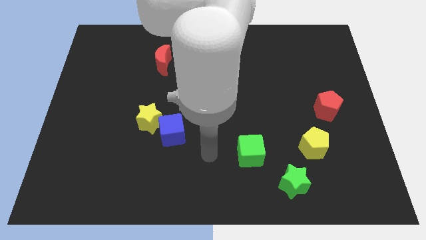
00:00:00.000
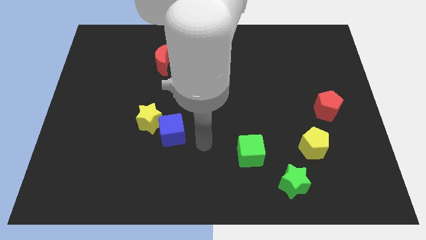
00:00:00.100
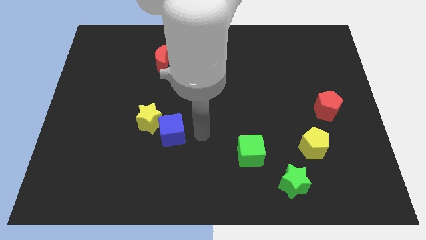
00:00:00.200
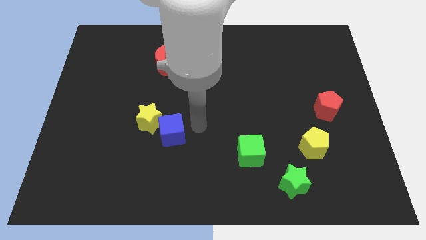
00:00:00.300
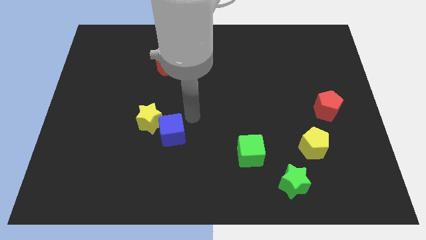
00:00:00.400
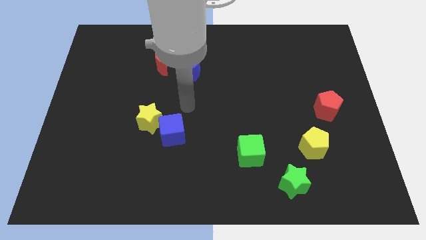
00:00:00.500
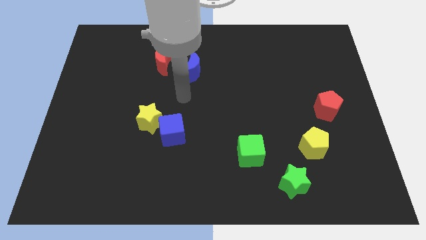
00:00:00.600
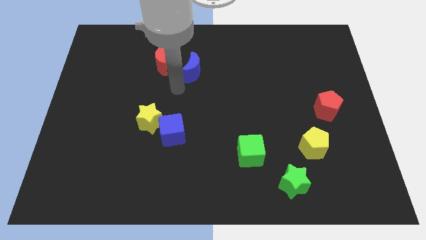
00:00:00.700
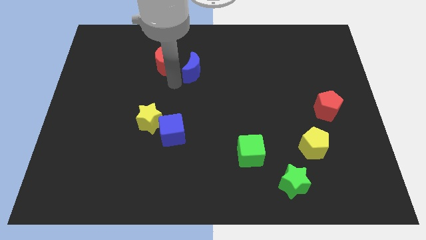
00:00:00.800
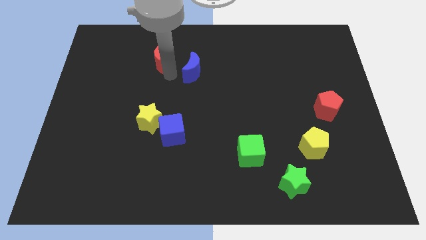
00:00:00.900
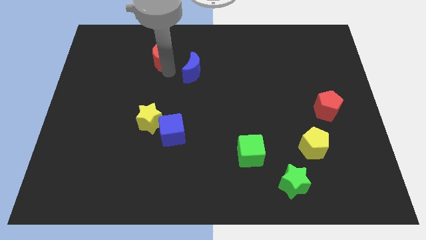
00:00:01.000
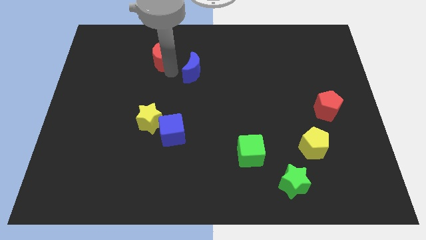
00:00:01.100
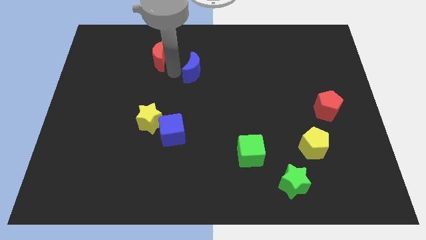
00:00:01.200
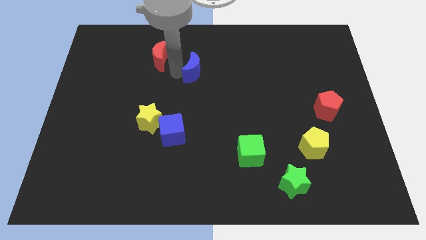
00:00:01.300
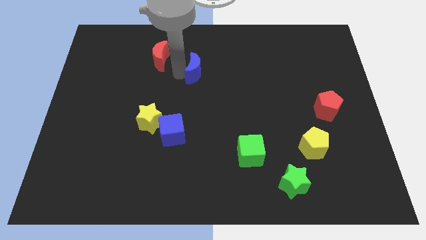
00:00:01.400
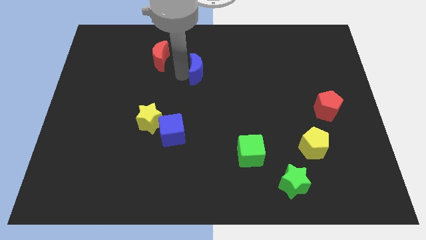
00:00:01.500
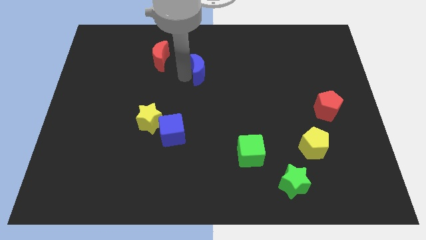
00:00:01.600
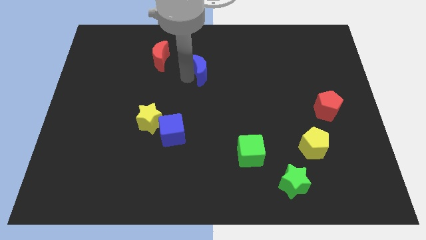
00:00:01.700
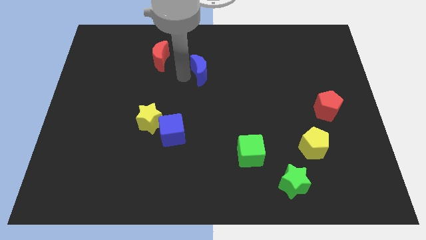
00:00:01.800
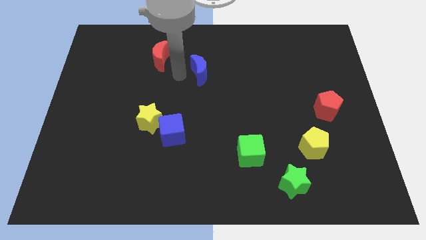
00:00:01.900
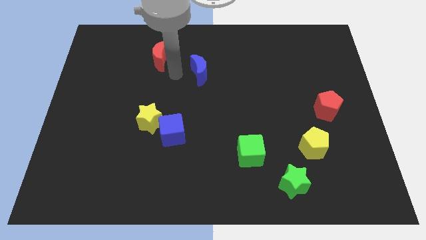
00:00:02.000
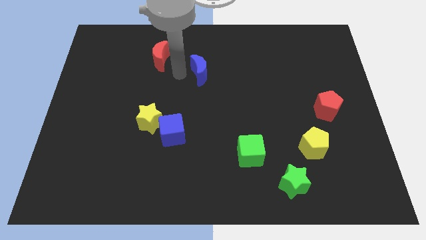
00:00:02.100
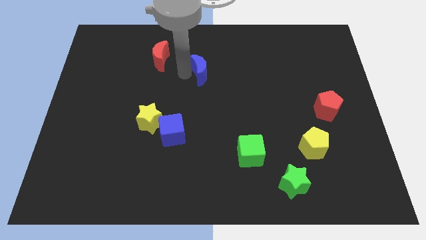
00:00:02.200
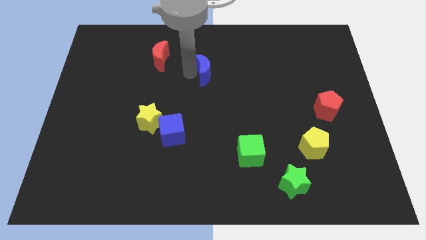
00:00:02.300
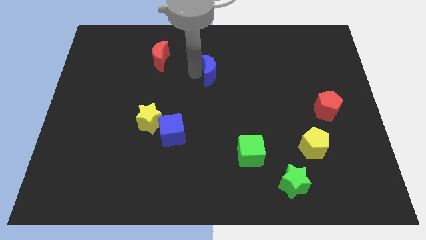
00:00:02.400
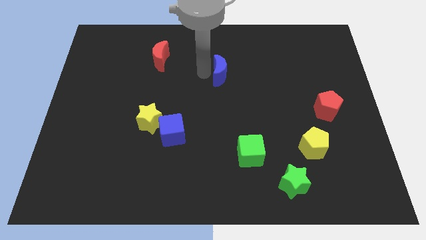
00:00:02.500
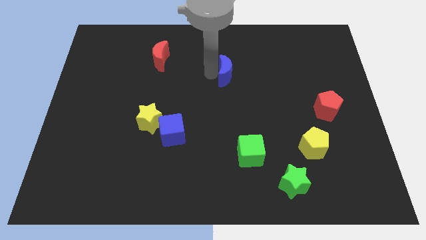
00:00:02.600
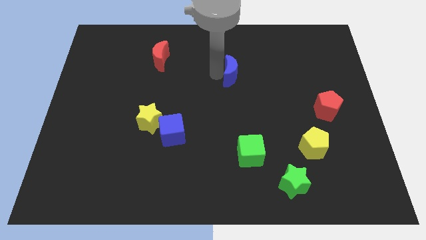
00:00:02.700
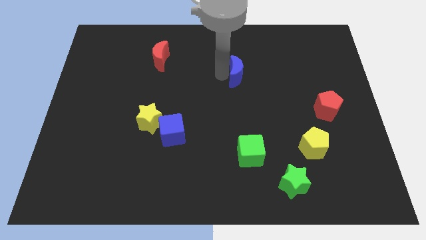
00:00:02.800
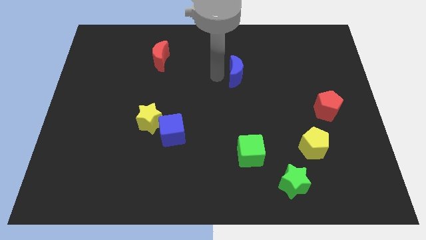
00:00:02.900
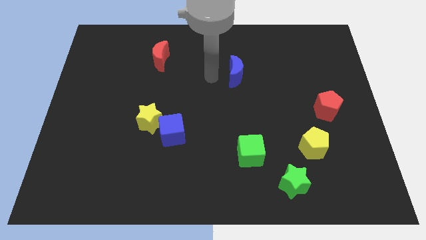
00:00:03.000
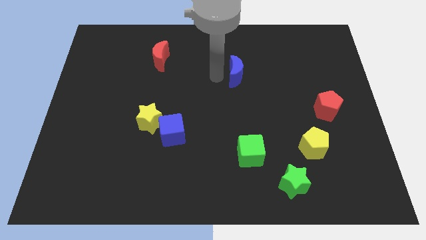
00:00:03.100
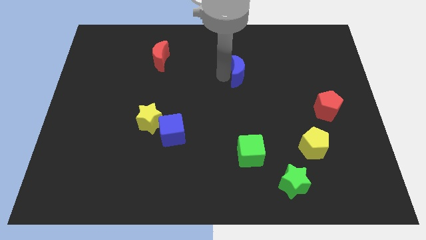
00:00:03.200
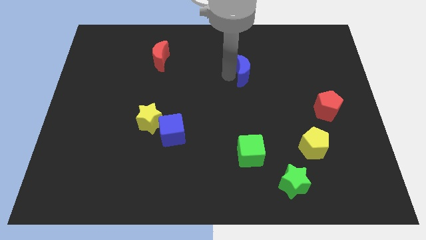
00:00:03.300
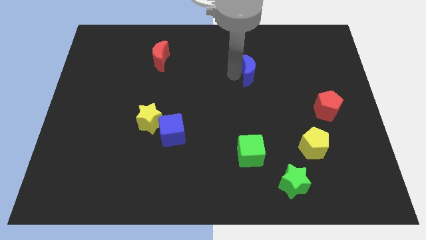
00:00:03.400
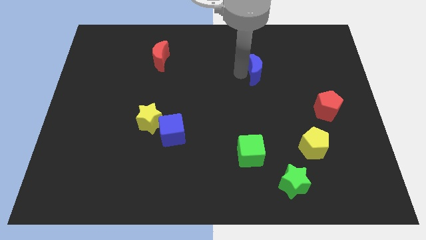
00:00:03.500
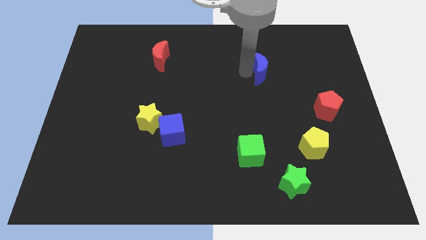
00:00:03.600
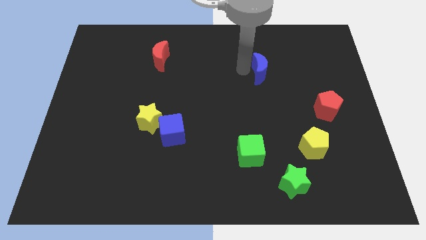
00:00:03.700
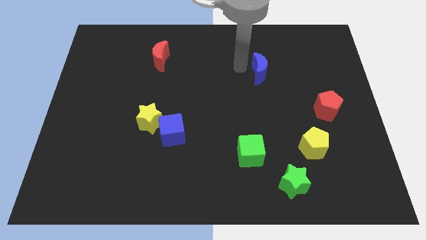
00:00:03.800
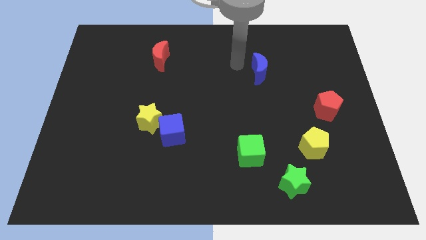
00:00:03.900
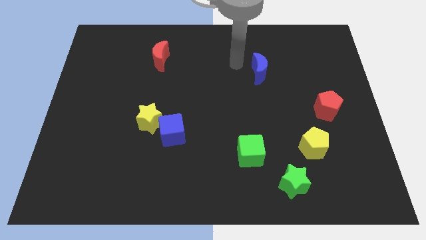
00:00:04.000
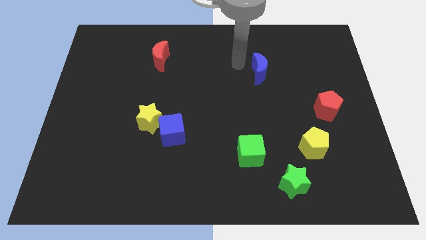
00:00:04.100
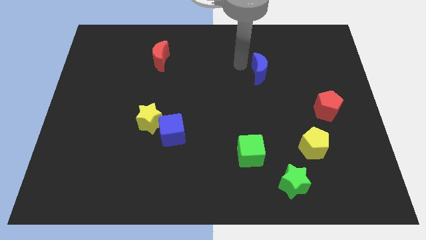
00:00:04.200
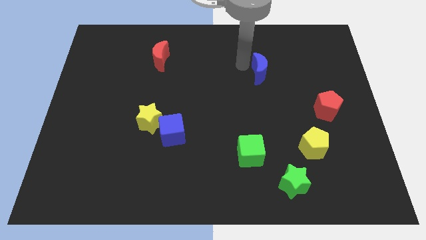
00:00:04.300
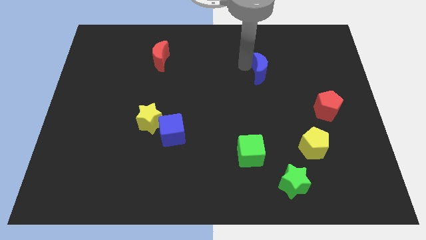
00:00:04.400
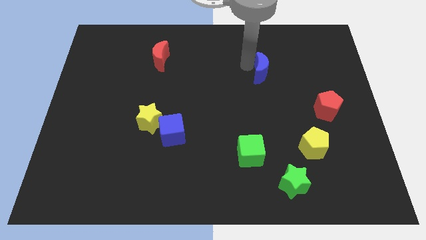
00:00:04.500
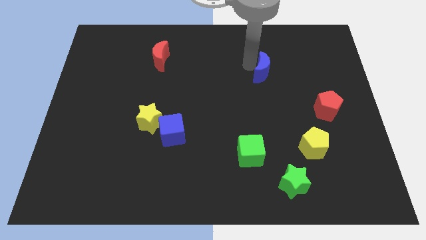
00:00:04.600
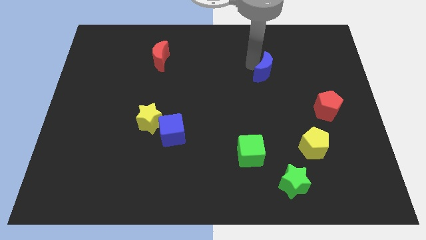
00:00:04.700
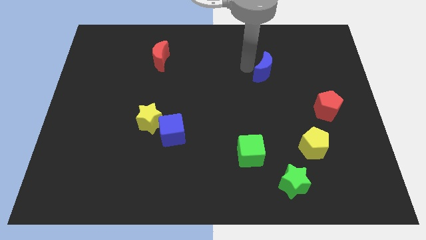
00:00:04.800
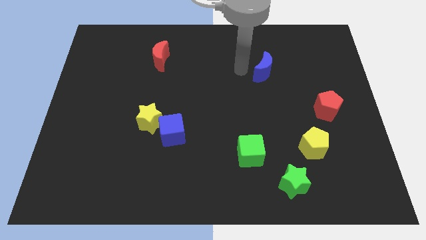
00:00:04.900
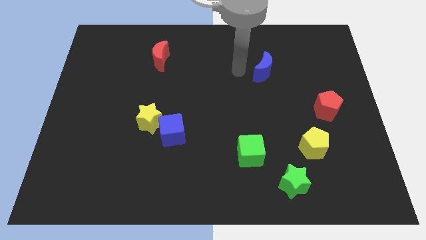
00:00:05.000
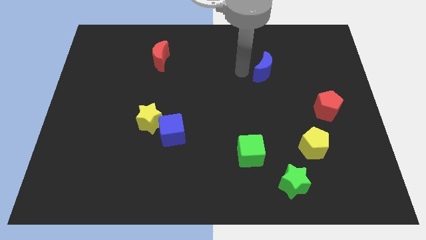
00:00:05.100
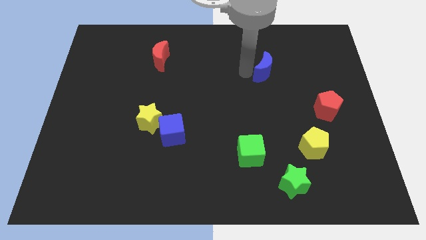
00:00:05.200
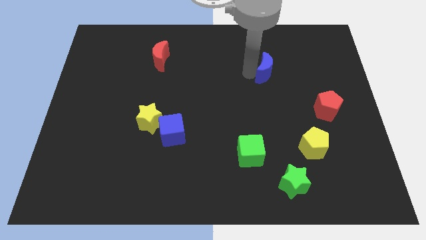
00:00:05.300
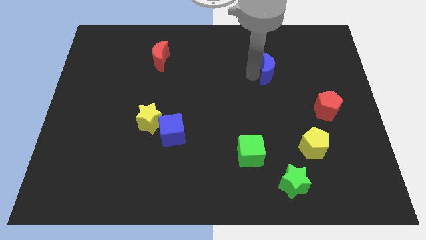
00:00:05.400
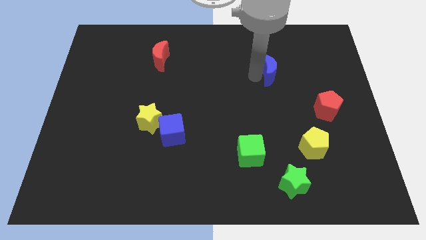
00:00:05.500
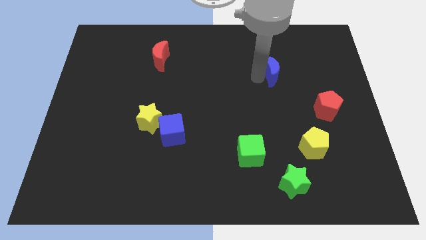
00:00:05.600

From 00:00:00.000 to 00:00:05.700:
push the blue moon right

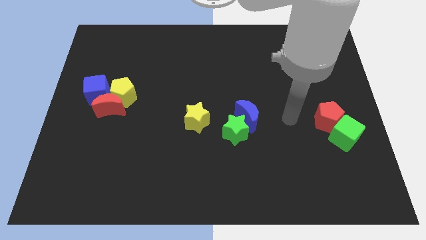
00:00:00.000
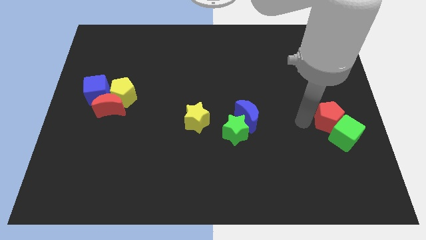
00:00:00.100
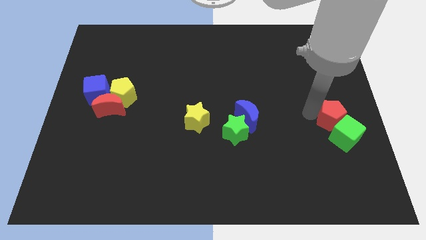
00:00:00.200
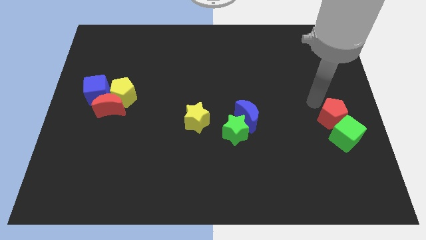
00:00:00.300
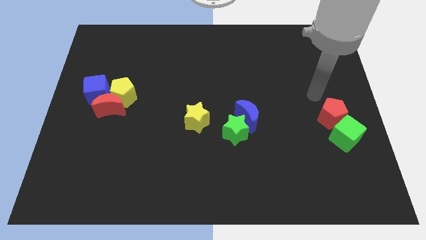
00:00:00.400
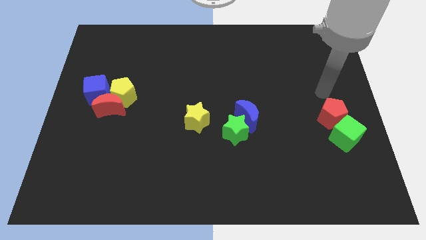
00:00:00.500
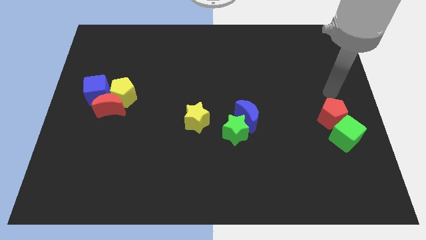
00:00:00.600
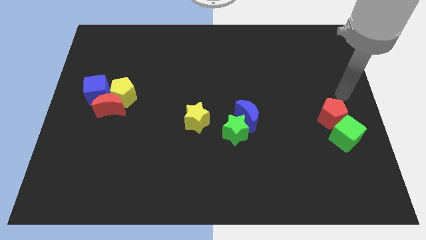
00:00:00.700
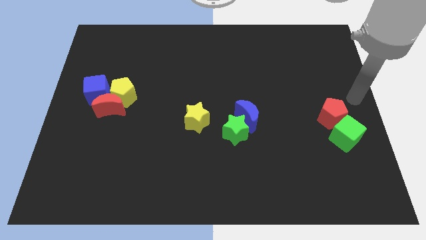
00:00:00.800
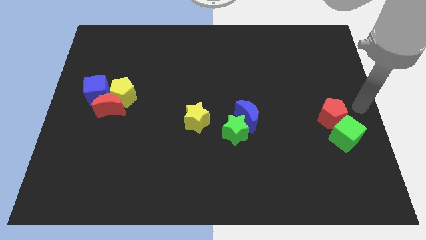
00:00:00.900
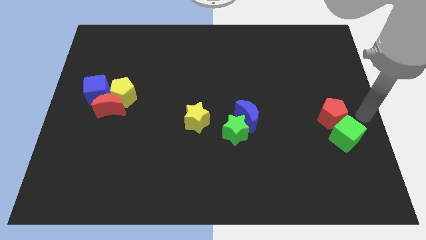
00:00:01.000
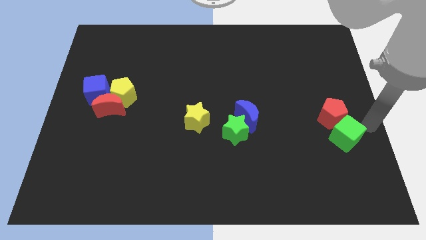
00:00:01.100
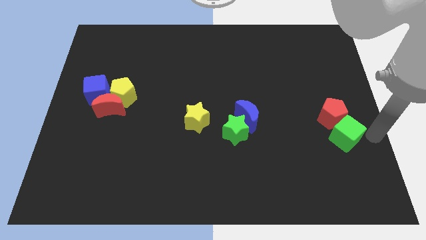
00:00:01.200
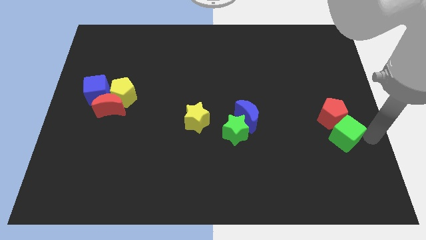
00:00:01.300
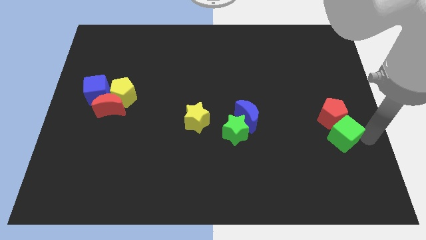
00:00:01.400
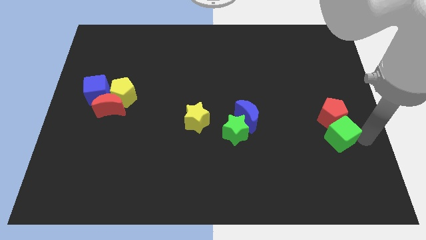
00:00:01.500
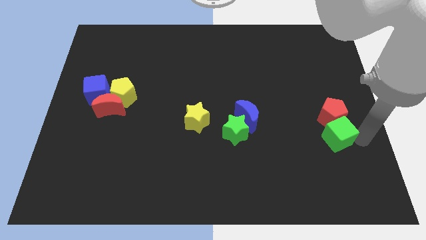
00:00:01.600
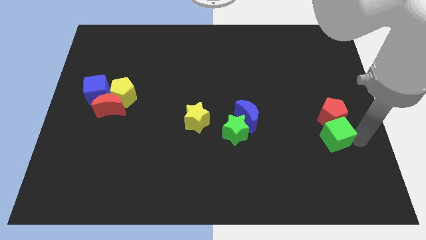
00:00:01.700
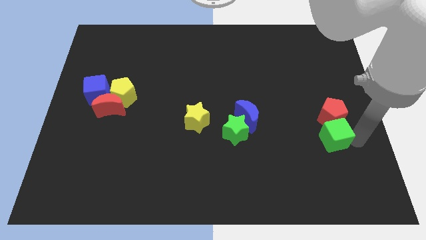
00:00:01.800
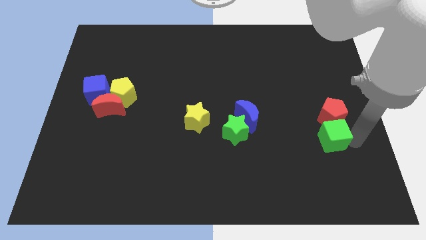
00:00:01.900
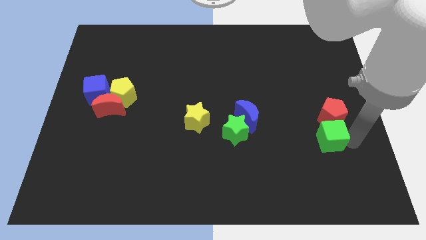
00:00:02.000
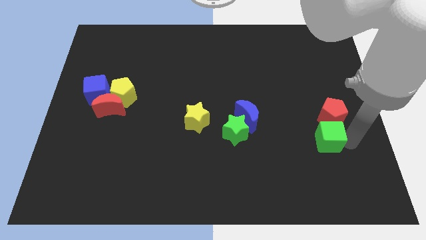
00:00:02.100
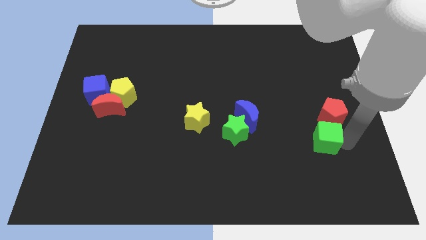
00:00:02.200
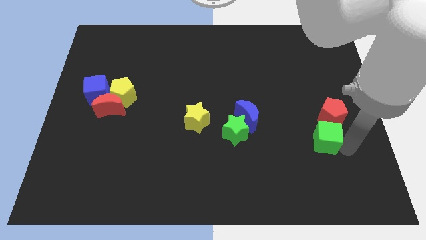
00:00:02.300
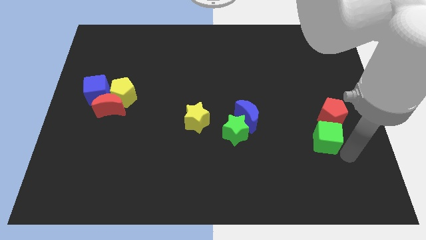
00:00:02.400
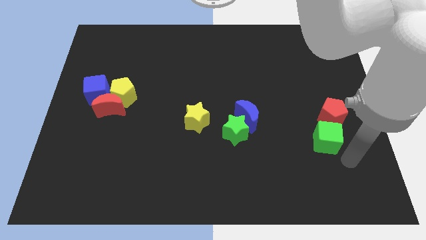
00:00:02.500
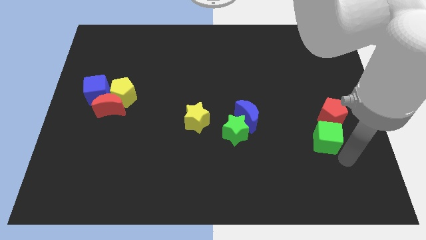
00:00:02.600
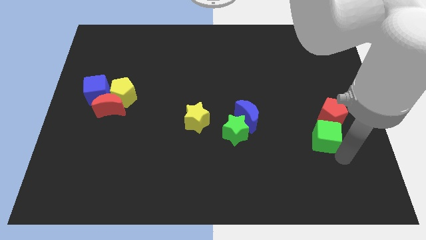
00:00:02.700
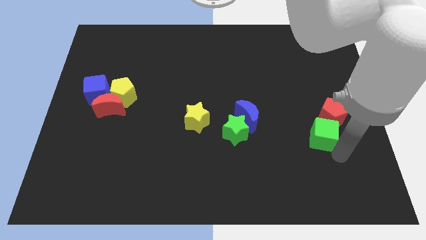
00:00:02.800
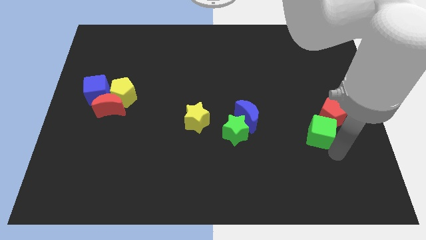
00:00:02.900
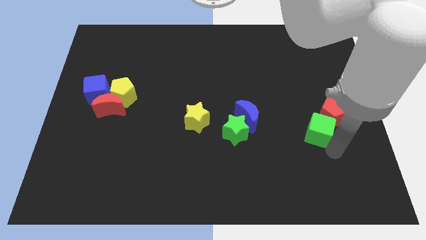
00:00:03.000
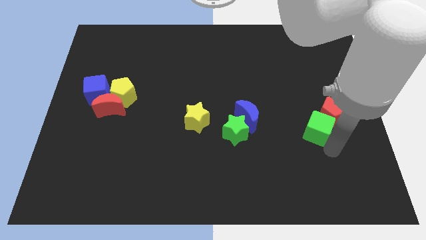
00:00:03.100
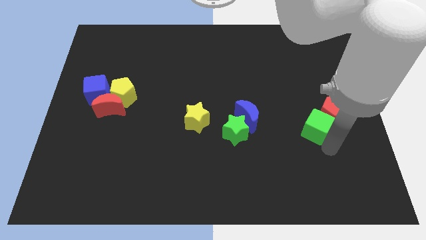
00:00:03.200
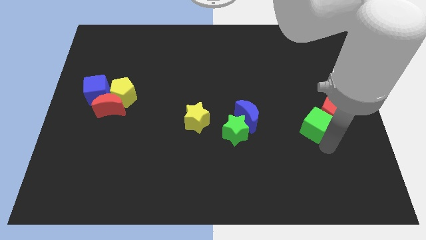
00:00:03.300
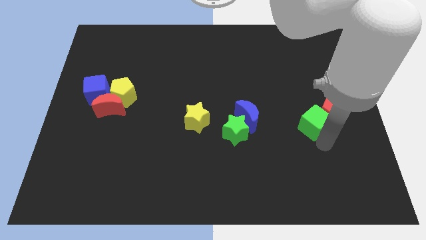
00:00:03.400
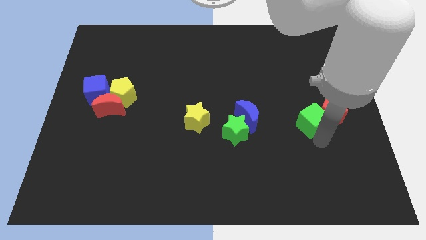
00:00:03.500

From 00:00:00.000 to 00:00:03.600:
push the green cube upwards and to the left a little bit
